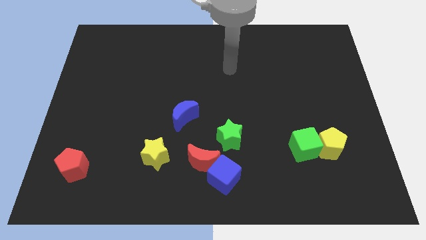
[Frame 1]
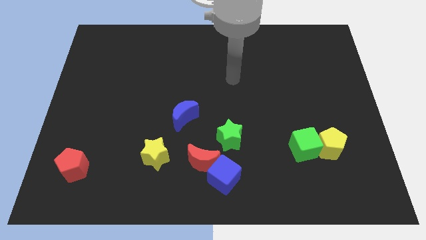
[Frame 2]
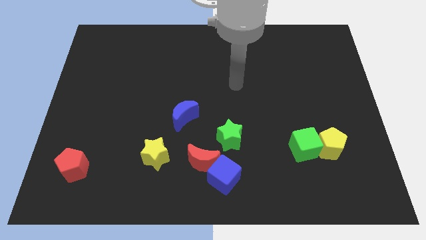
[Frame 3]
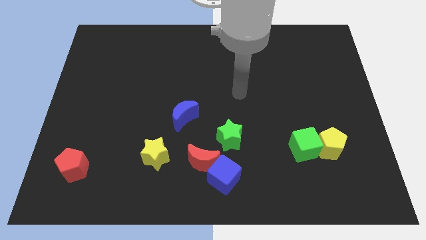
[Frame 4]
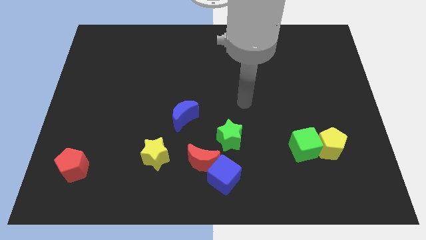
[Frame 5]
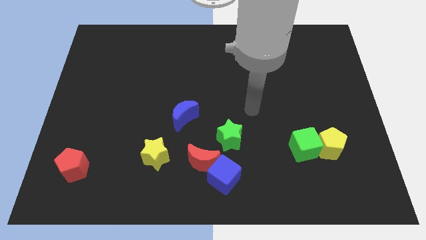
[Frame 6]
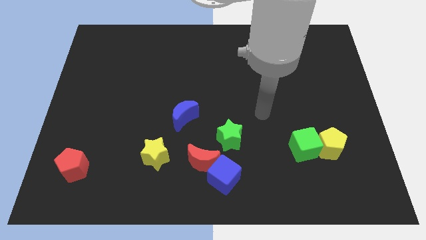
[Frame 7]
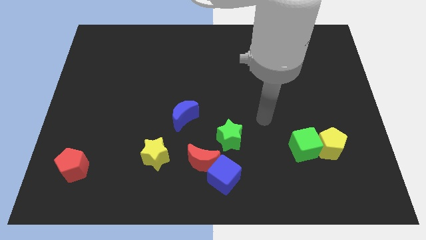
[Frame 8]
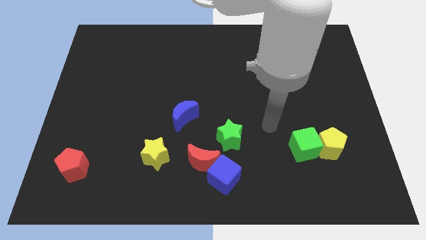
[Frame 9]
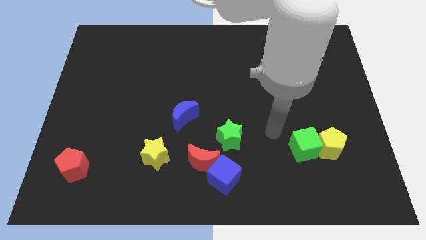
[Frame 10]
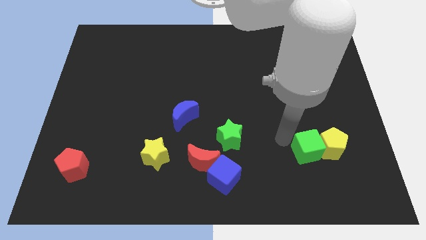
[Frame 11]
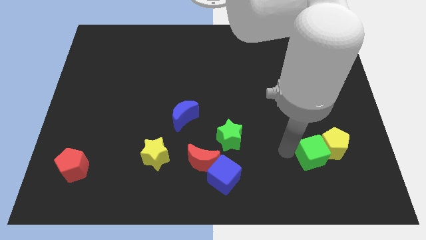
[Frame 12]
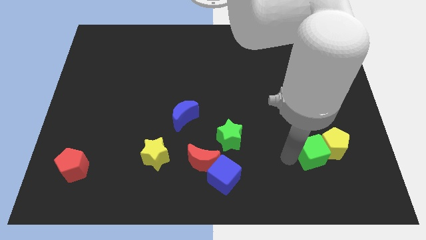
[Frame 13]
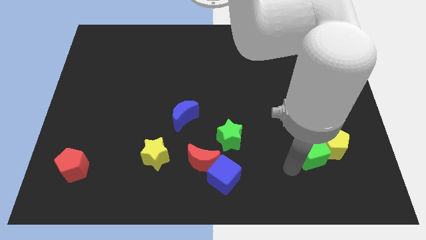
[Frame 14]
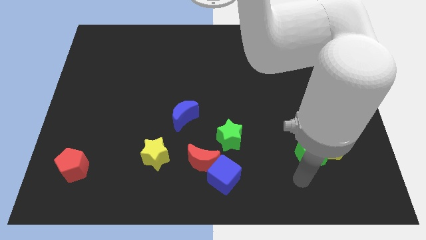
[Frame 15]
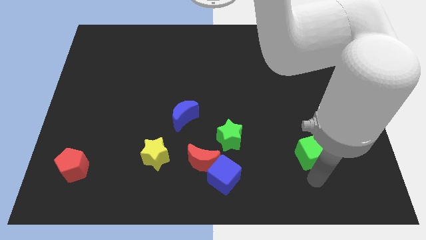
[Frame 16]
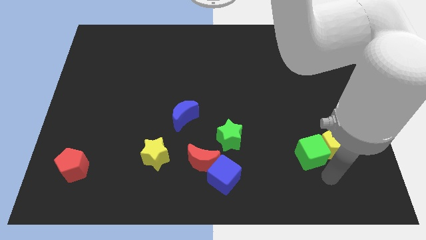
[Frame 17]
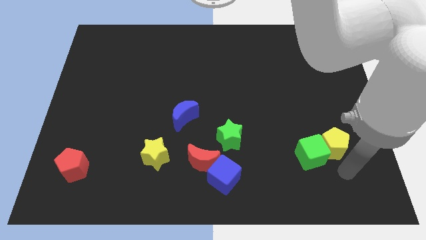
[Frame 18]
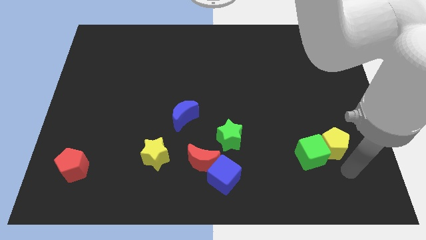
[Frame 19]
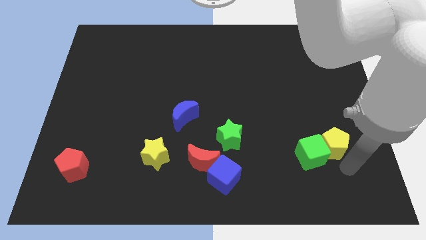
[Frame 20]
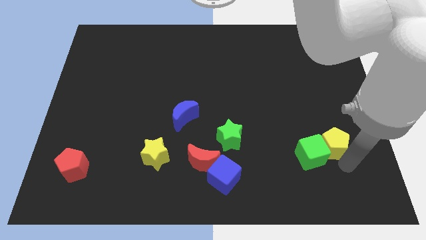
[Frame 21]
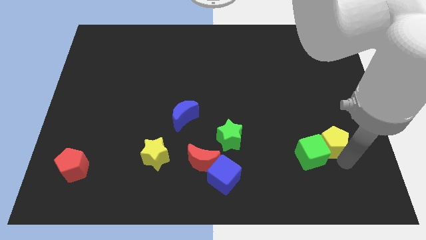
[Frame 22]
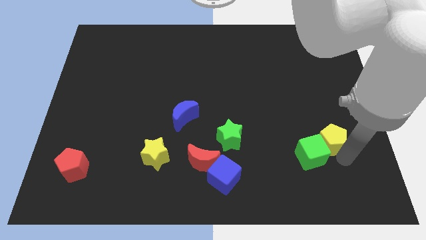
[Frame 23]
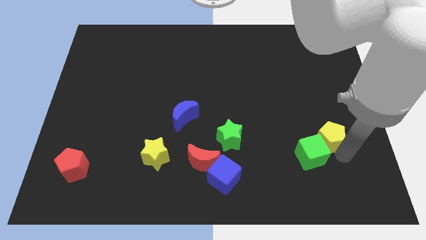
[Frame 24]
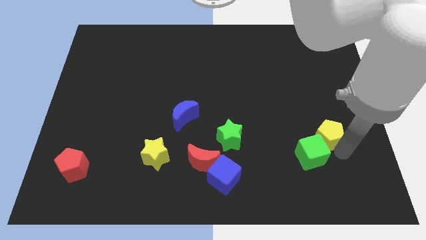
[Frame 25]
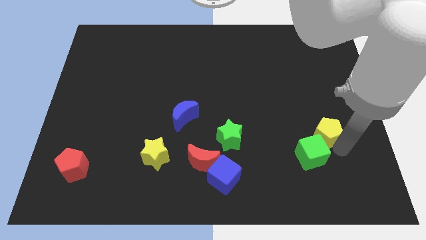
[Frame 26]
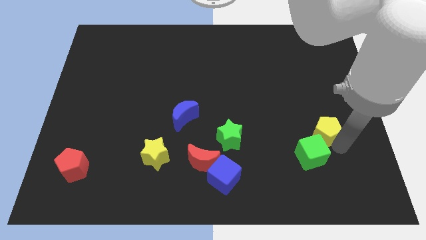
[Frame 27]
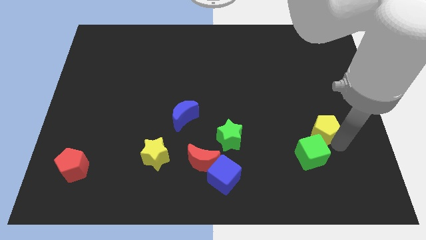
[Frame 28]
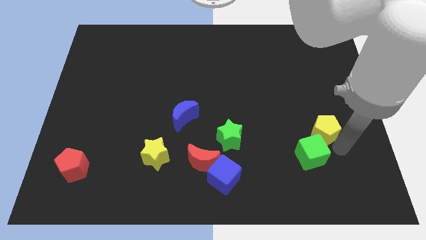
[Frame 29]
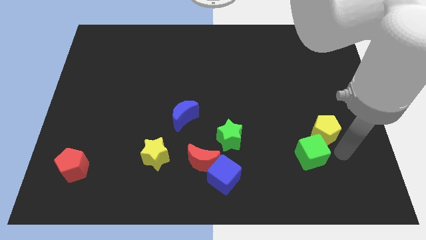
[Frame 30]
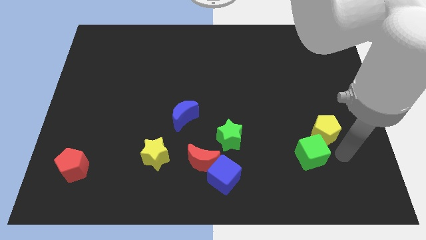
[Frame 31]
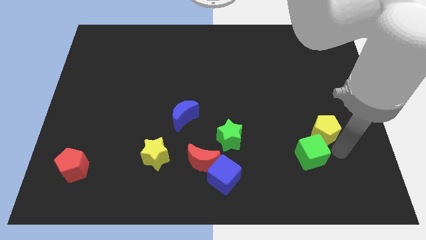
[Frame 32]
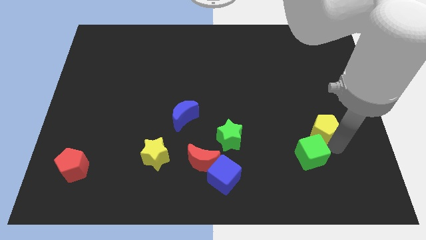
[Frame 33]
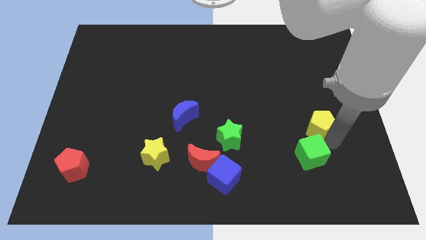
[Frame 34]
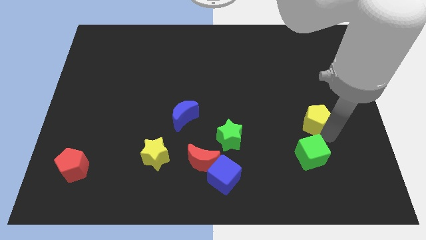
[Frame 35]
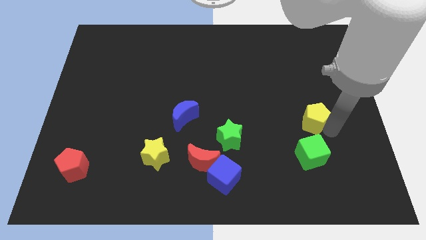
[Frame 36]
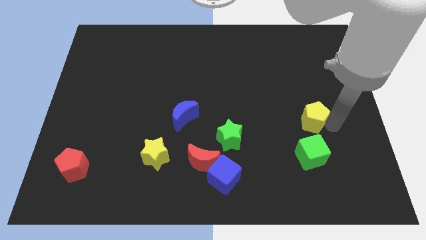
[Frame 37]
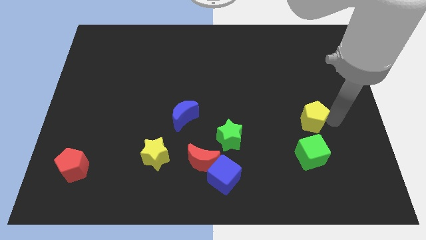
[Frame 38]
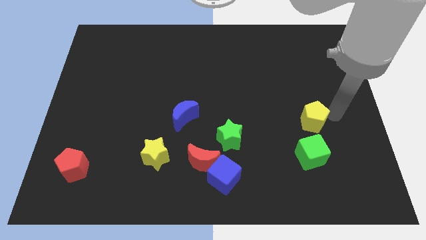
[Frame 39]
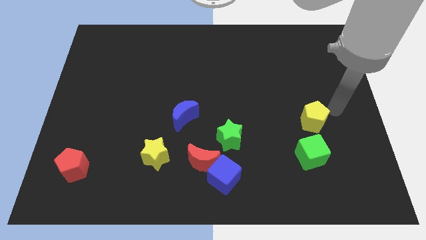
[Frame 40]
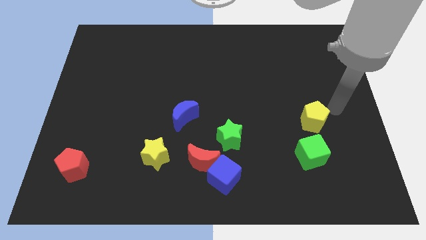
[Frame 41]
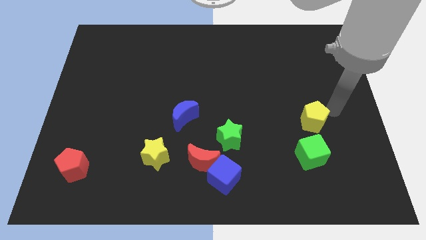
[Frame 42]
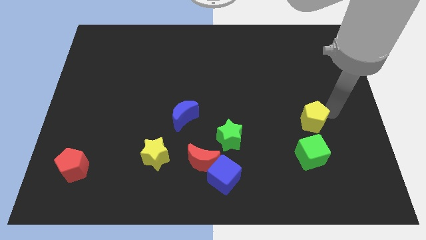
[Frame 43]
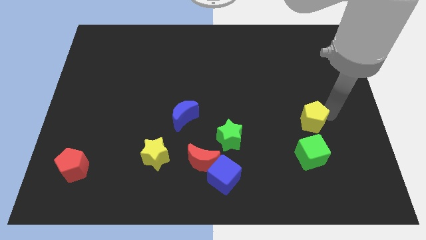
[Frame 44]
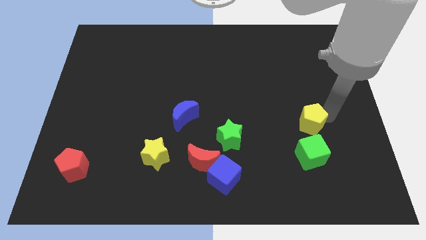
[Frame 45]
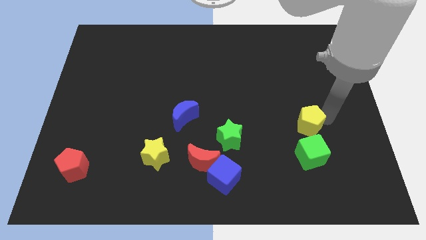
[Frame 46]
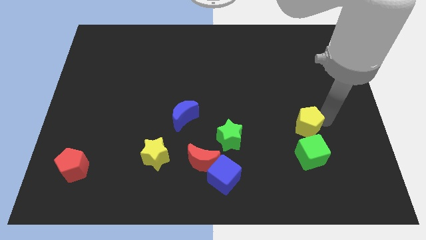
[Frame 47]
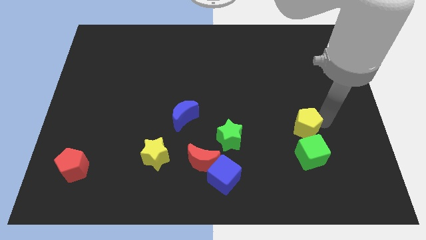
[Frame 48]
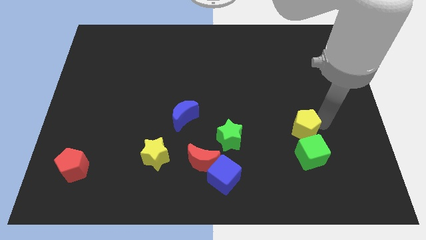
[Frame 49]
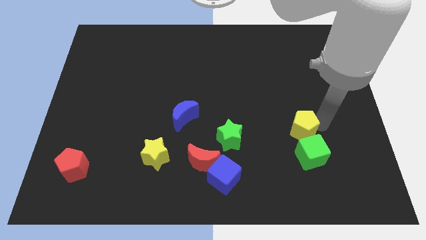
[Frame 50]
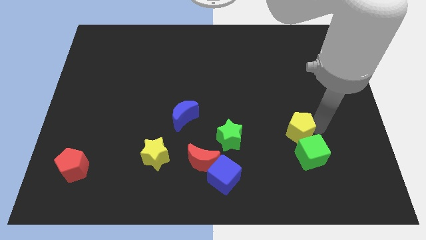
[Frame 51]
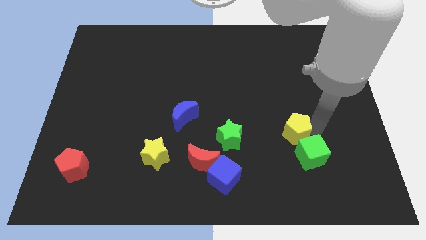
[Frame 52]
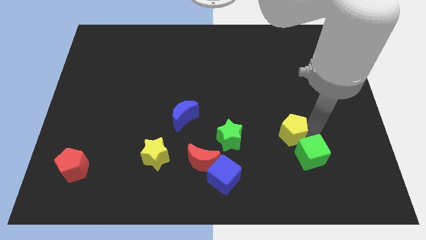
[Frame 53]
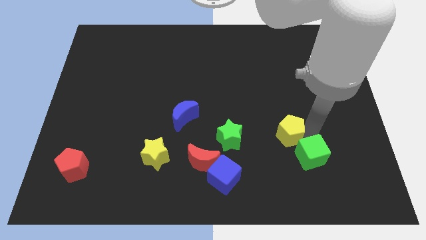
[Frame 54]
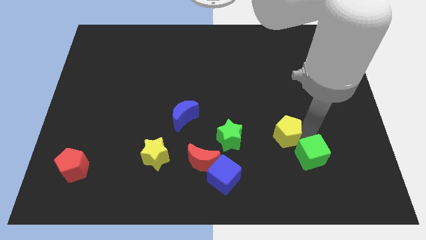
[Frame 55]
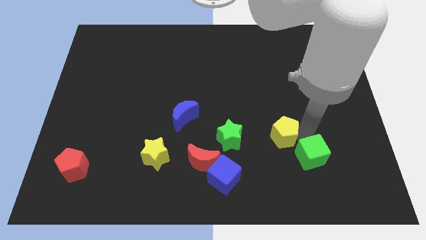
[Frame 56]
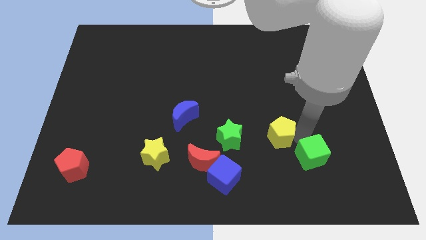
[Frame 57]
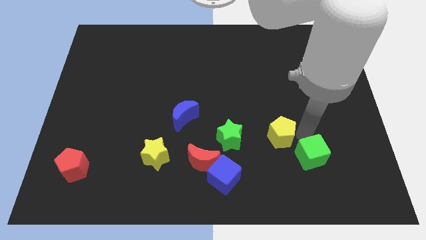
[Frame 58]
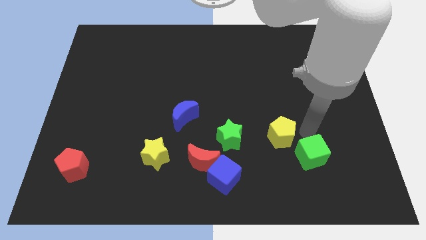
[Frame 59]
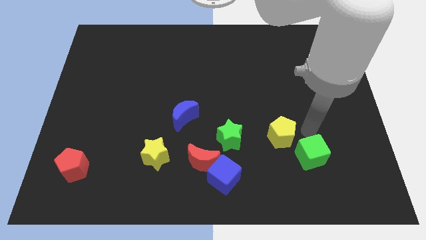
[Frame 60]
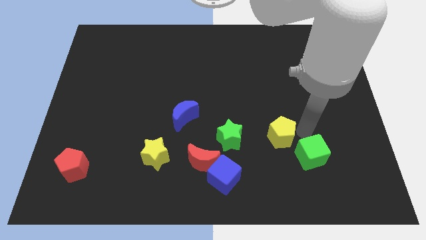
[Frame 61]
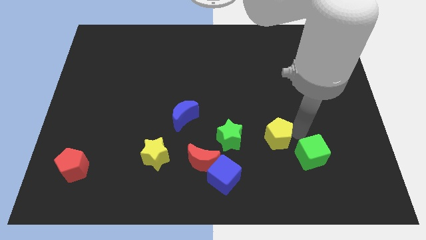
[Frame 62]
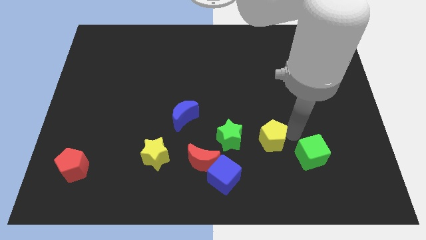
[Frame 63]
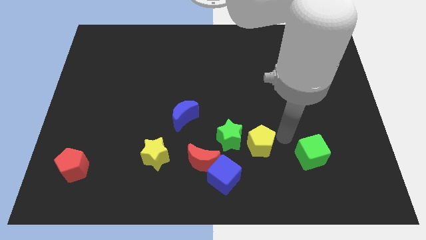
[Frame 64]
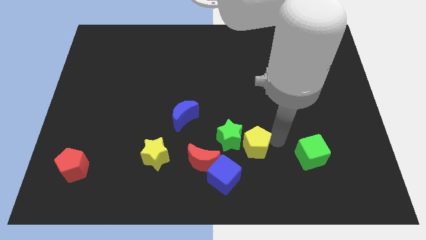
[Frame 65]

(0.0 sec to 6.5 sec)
push the yellow pentagon next to the green star
